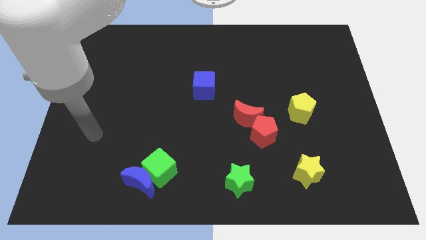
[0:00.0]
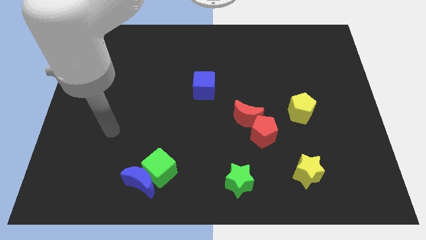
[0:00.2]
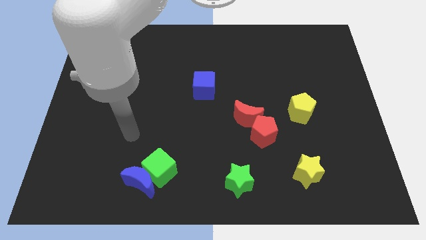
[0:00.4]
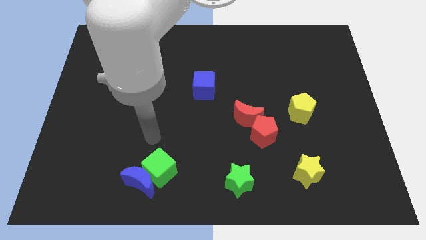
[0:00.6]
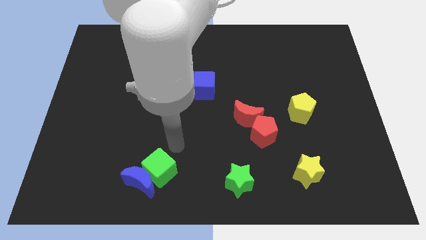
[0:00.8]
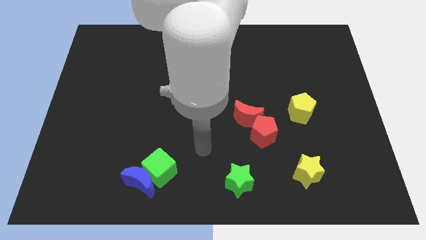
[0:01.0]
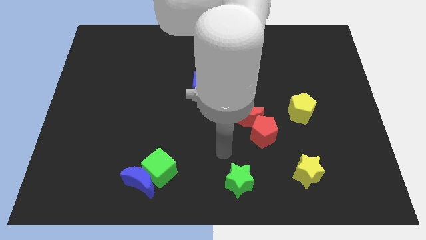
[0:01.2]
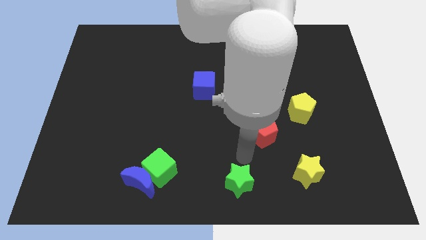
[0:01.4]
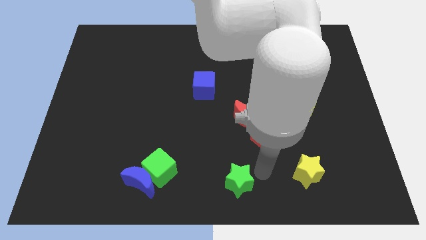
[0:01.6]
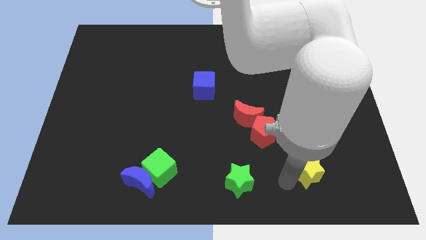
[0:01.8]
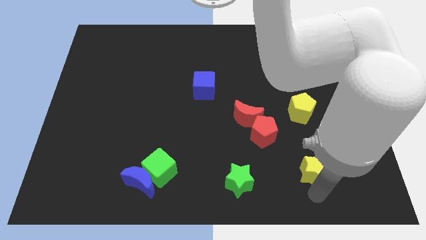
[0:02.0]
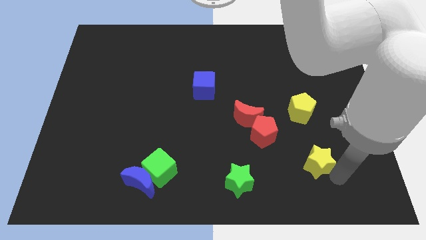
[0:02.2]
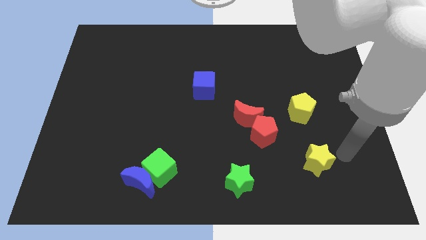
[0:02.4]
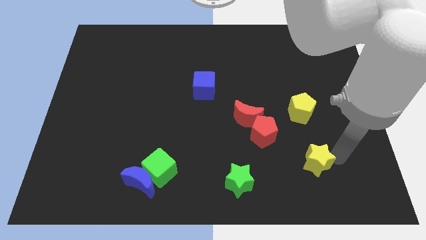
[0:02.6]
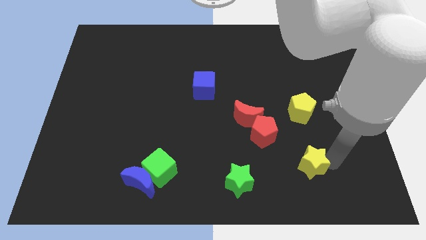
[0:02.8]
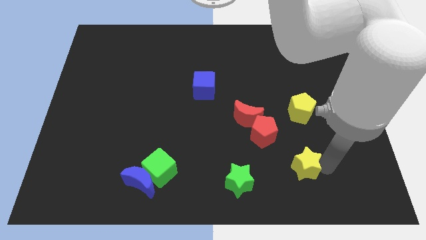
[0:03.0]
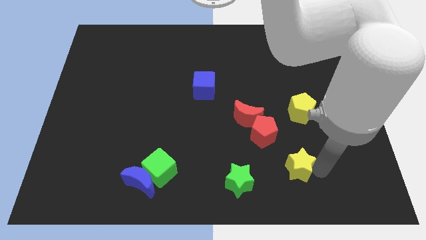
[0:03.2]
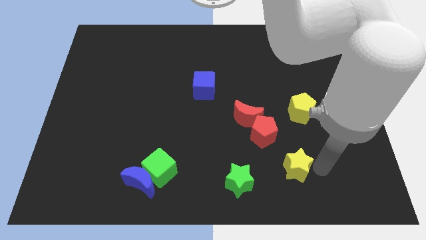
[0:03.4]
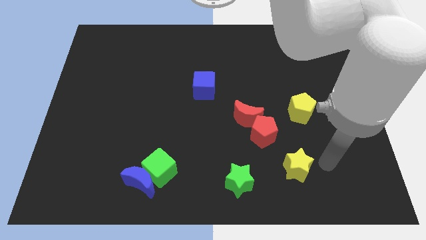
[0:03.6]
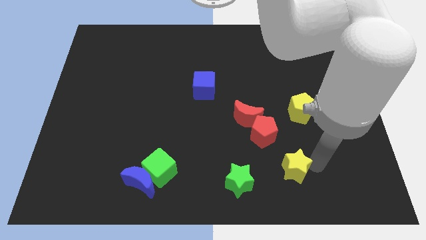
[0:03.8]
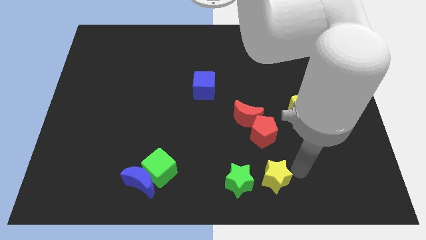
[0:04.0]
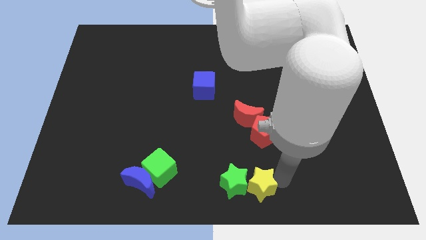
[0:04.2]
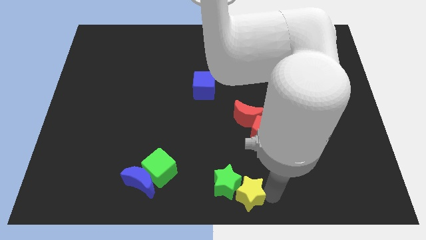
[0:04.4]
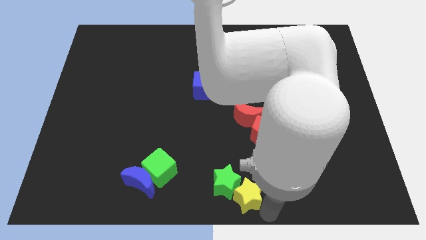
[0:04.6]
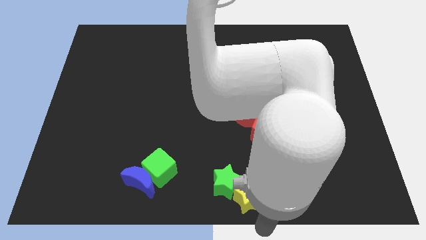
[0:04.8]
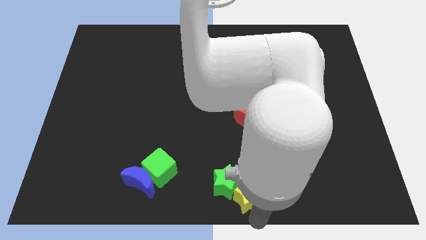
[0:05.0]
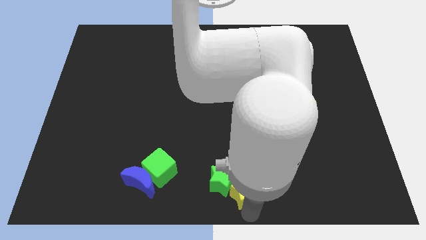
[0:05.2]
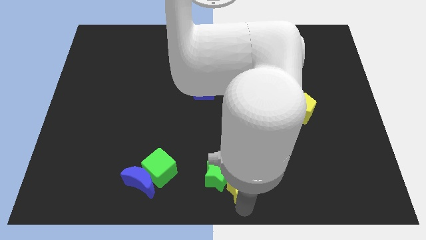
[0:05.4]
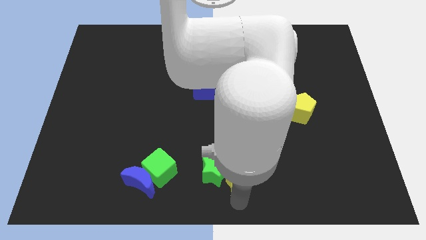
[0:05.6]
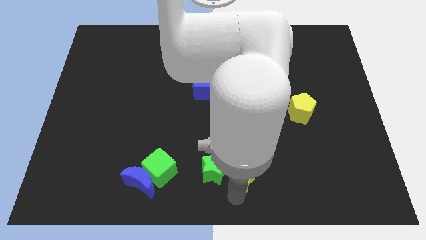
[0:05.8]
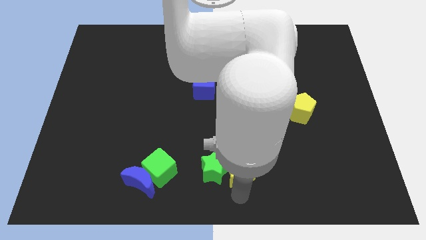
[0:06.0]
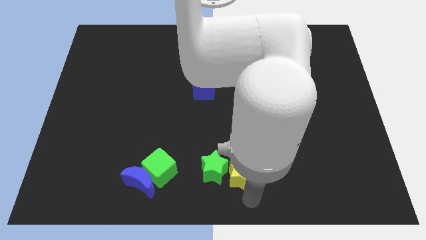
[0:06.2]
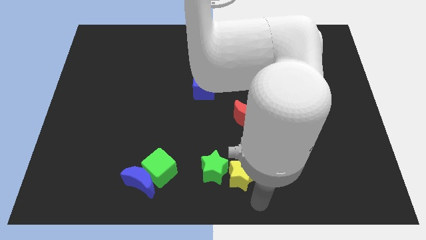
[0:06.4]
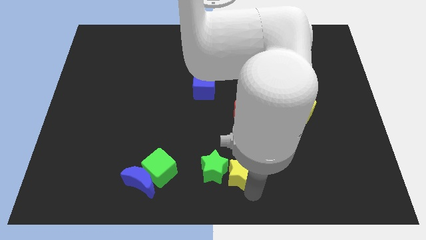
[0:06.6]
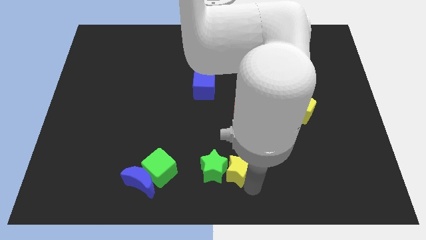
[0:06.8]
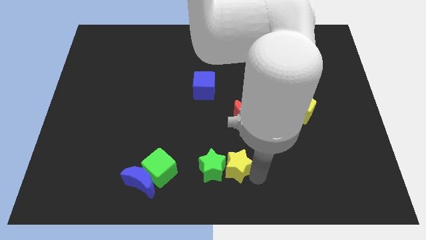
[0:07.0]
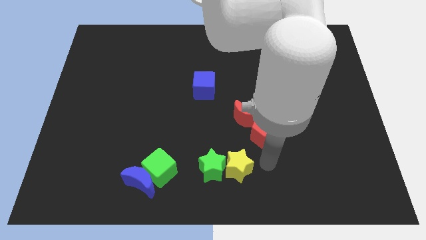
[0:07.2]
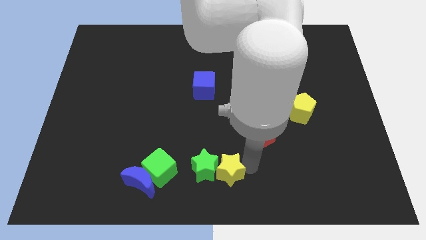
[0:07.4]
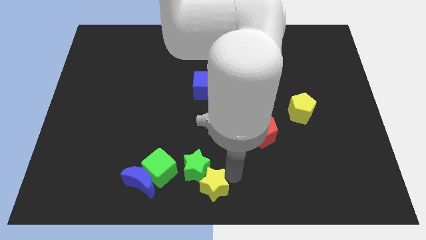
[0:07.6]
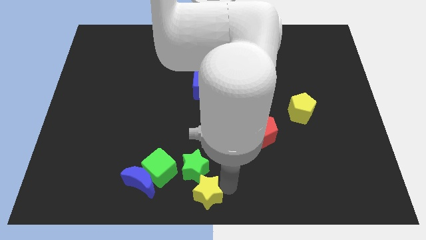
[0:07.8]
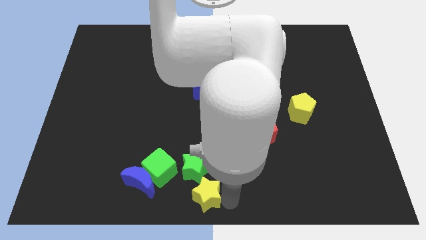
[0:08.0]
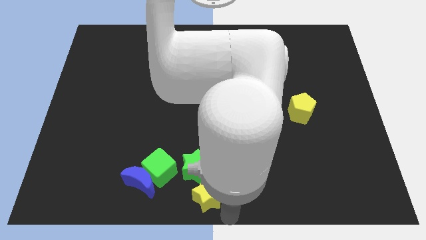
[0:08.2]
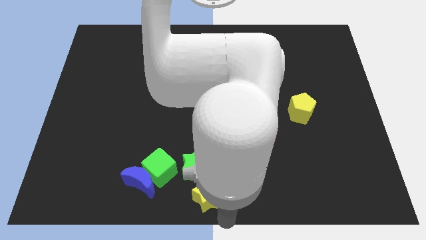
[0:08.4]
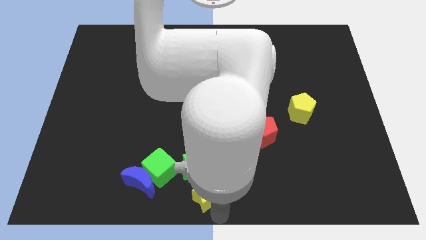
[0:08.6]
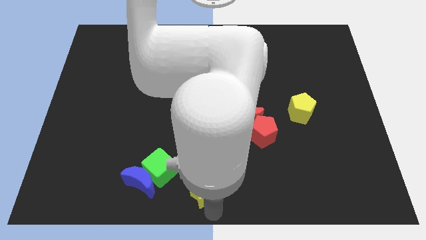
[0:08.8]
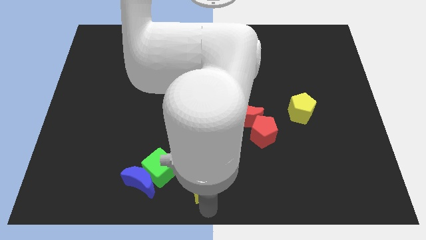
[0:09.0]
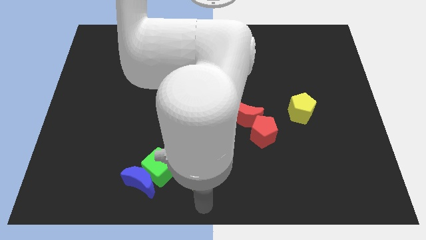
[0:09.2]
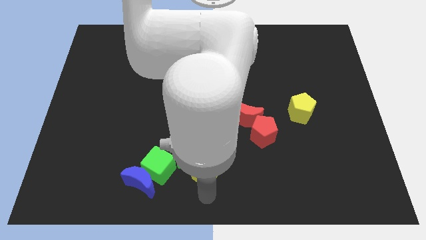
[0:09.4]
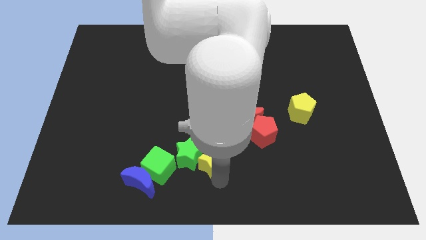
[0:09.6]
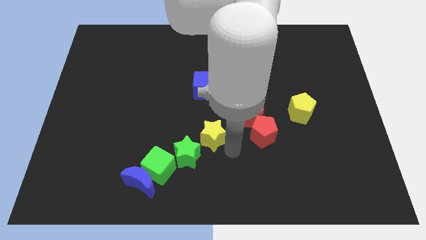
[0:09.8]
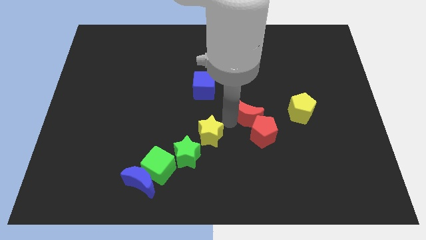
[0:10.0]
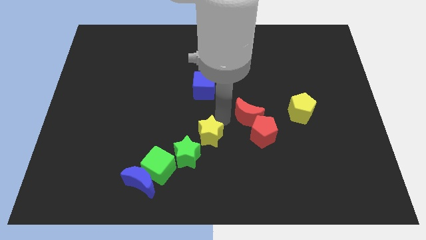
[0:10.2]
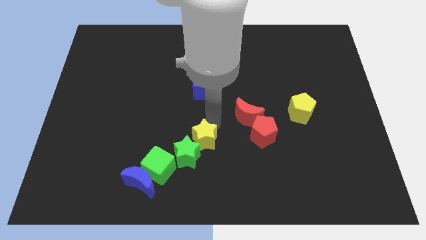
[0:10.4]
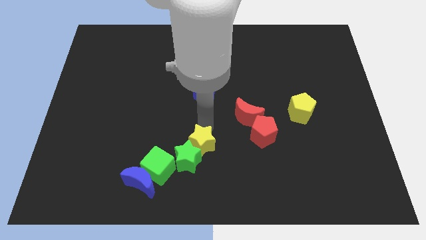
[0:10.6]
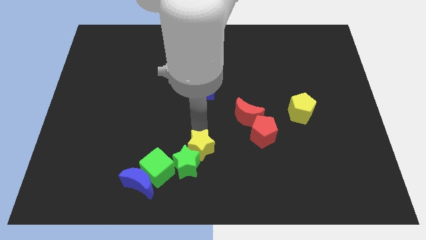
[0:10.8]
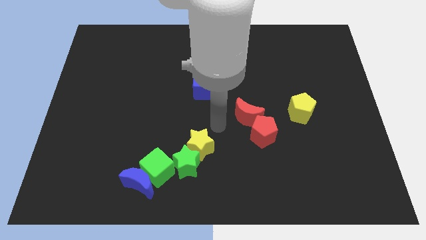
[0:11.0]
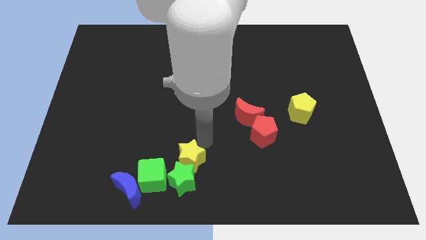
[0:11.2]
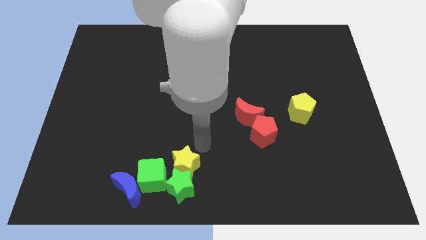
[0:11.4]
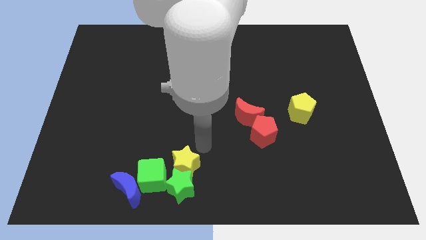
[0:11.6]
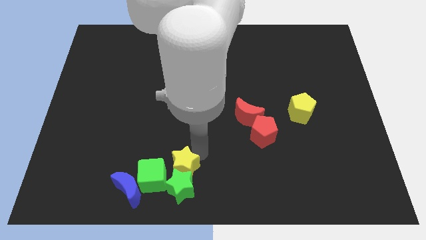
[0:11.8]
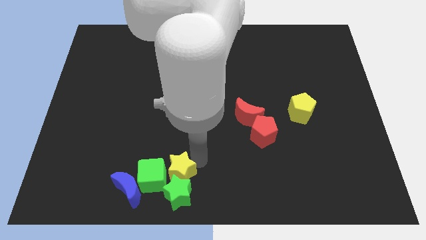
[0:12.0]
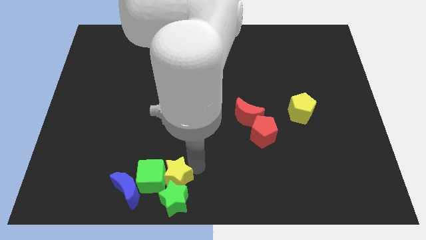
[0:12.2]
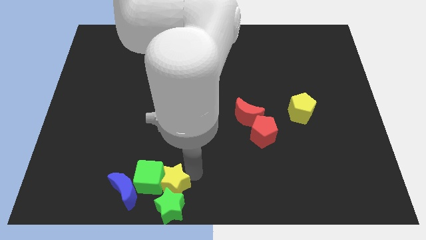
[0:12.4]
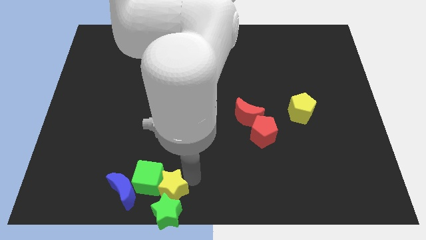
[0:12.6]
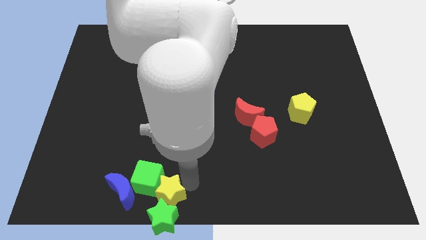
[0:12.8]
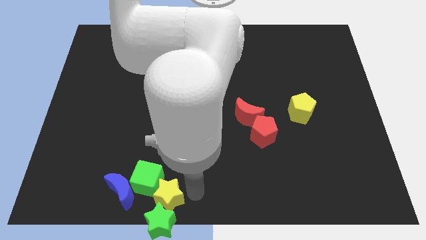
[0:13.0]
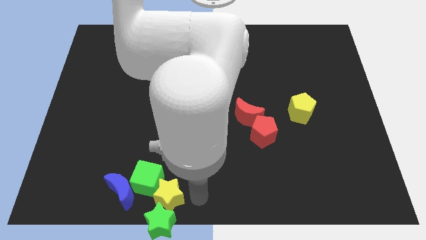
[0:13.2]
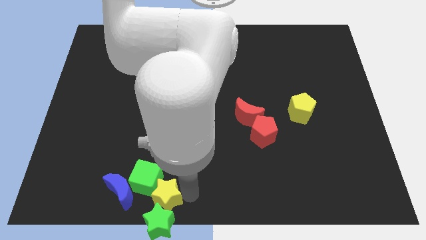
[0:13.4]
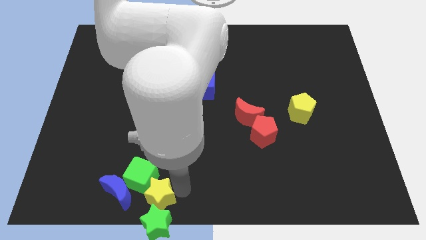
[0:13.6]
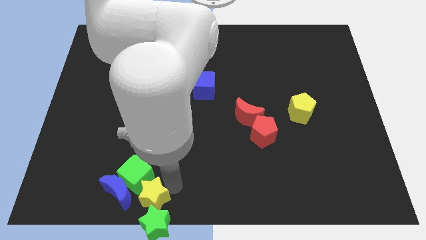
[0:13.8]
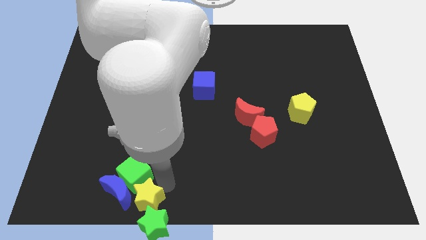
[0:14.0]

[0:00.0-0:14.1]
slide the yellow star towards the blue moon
